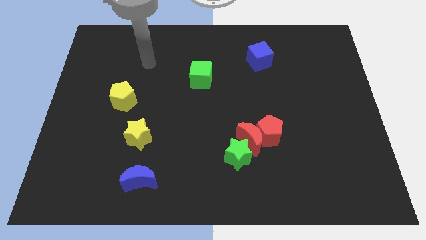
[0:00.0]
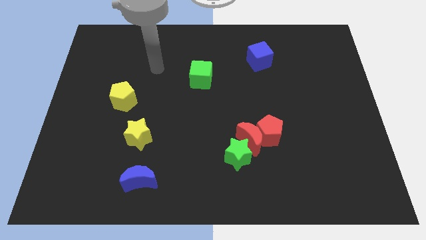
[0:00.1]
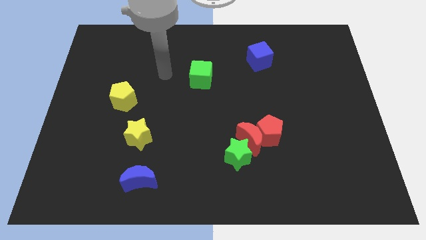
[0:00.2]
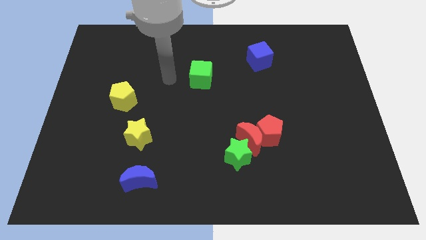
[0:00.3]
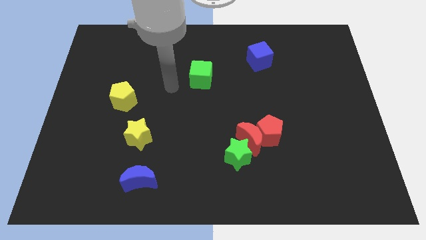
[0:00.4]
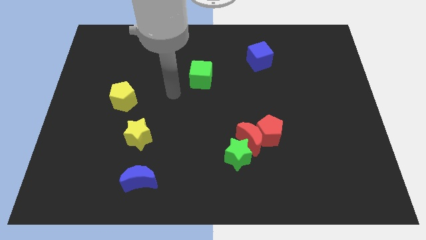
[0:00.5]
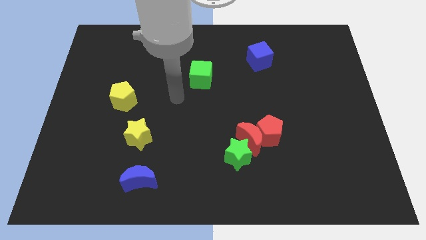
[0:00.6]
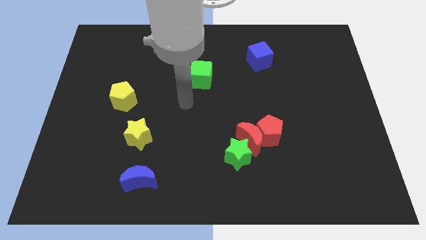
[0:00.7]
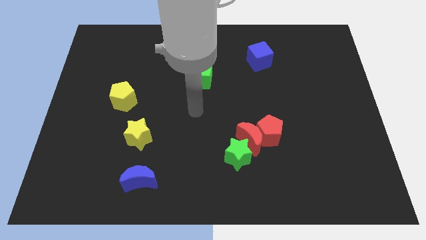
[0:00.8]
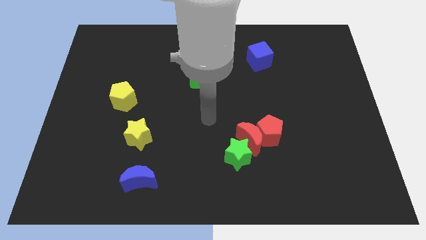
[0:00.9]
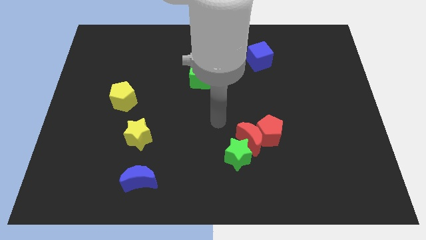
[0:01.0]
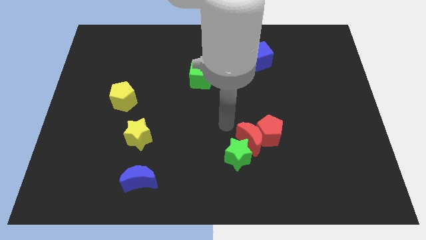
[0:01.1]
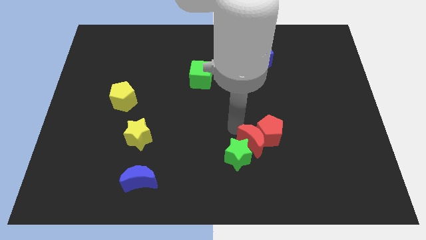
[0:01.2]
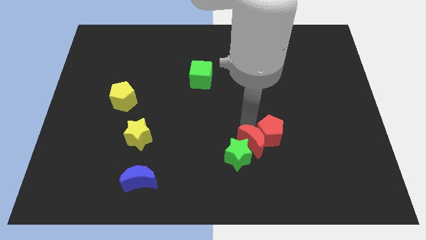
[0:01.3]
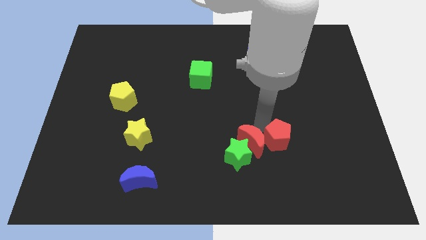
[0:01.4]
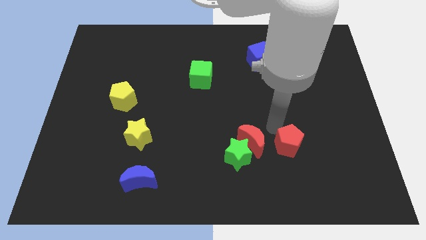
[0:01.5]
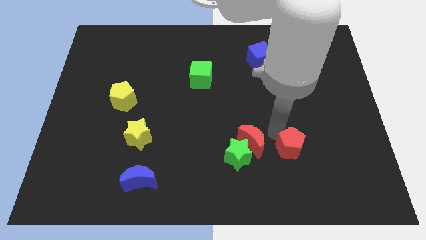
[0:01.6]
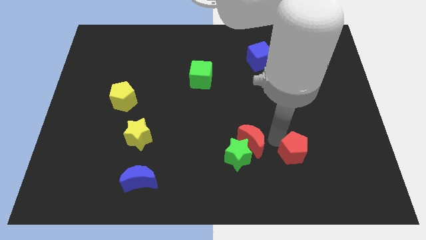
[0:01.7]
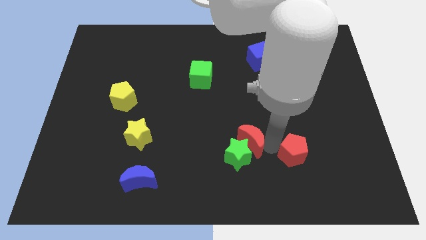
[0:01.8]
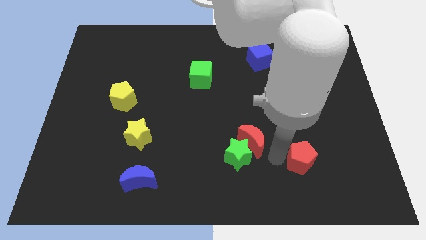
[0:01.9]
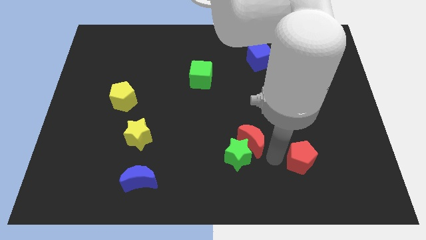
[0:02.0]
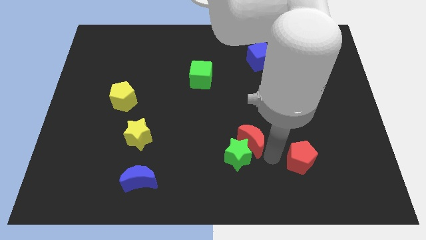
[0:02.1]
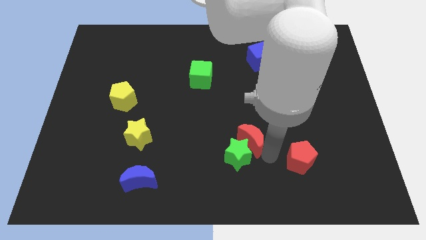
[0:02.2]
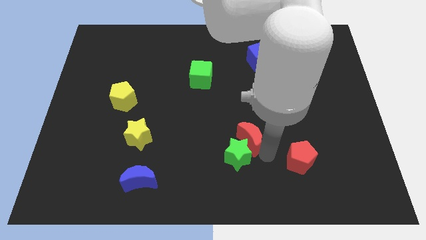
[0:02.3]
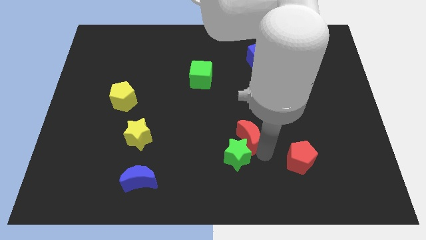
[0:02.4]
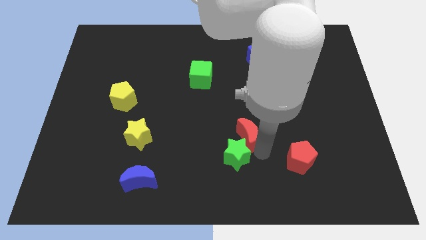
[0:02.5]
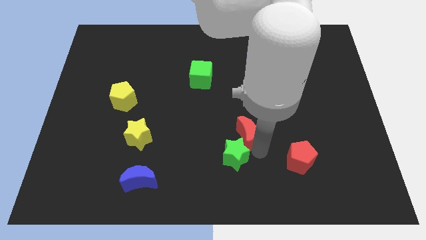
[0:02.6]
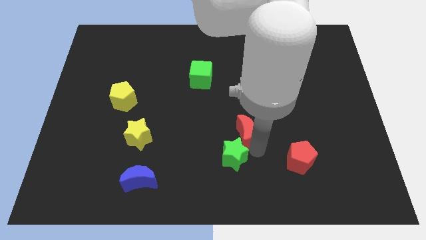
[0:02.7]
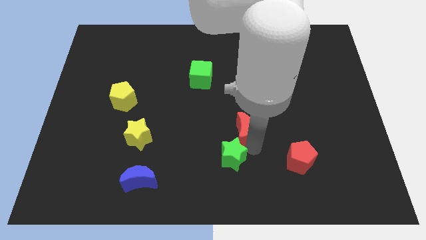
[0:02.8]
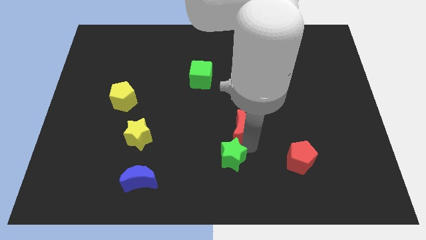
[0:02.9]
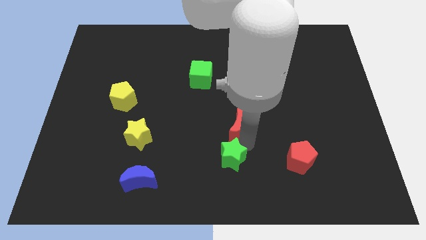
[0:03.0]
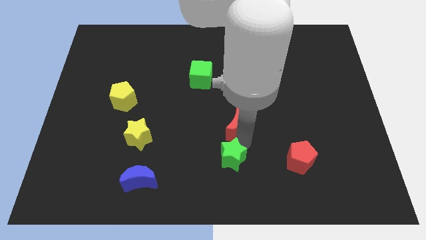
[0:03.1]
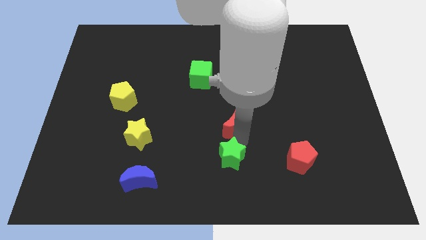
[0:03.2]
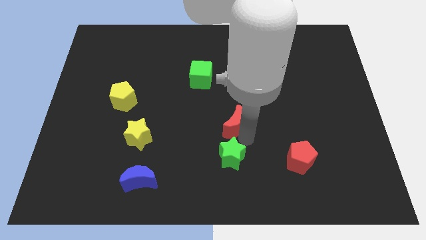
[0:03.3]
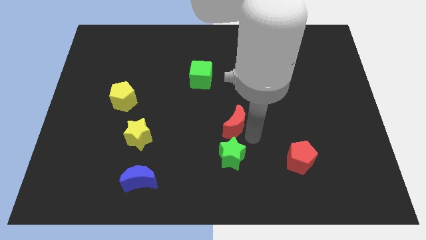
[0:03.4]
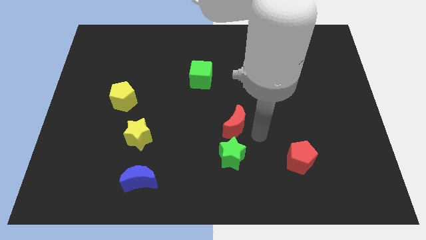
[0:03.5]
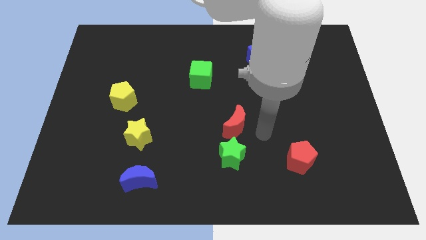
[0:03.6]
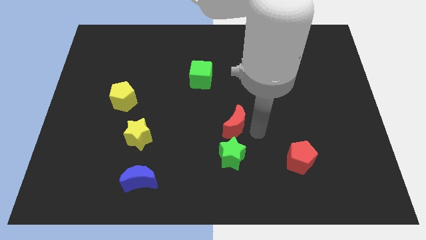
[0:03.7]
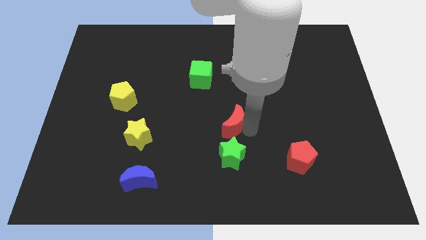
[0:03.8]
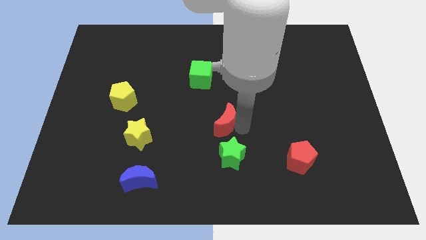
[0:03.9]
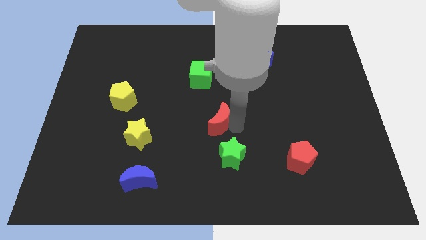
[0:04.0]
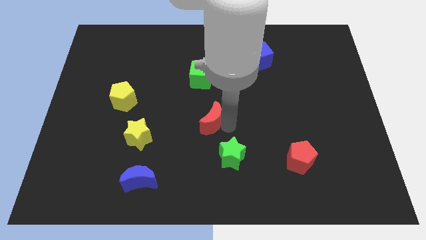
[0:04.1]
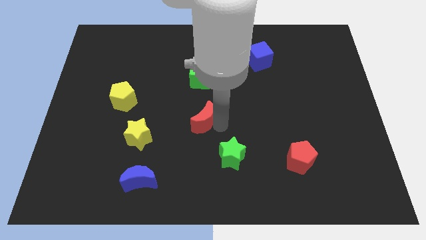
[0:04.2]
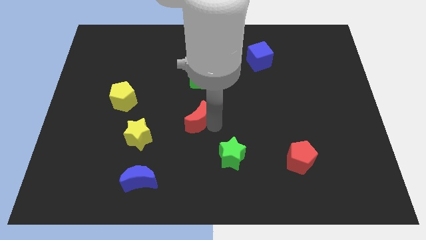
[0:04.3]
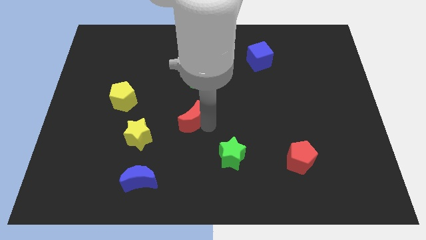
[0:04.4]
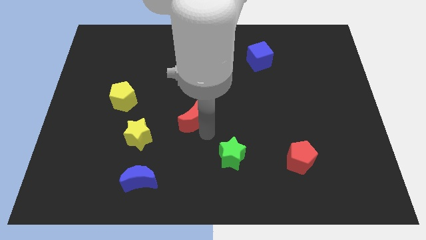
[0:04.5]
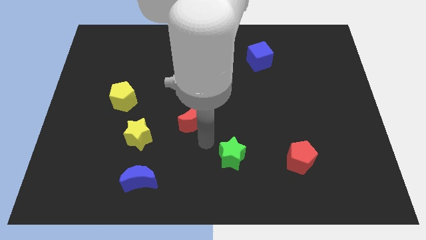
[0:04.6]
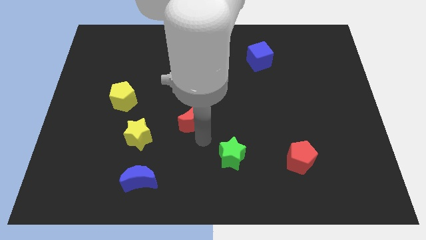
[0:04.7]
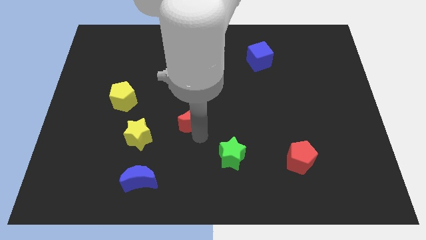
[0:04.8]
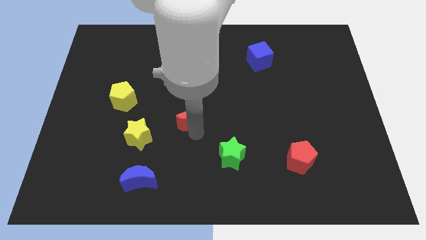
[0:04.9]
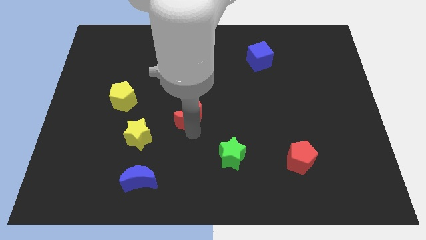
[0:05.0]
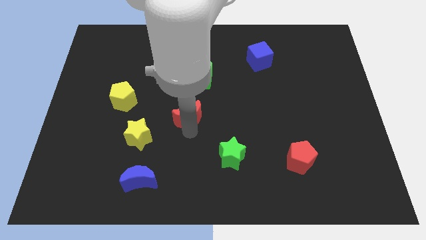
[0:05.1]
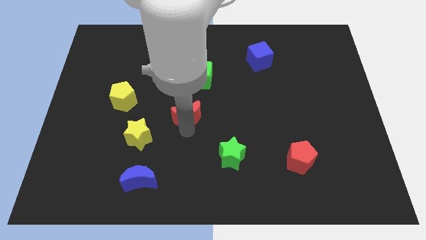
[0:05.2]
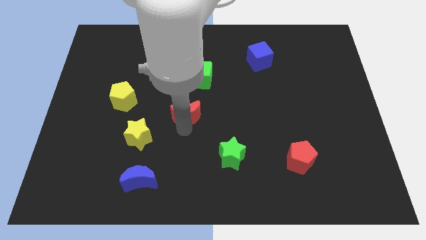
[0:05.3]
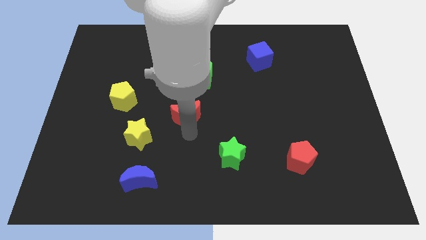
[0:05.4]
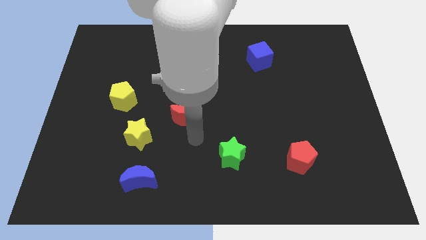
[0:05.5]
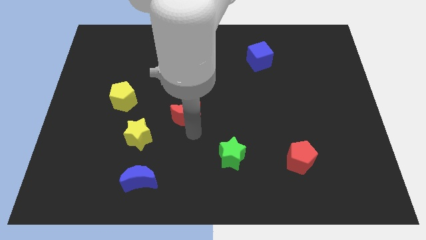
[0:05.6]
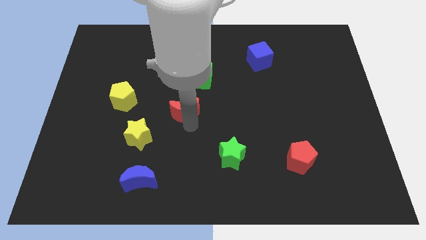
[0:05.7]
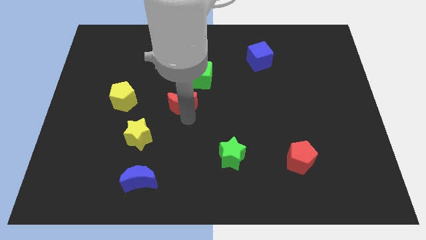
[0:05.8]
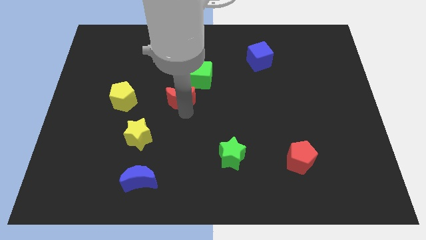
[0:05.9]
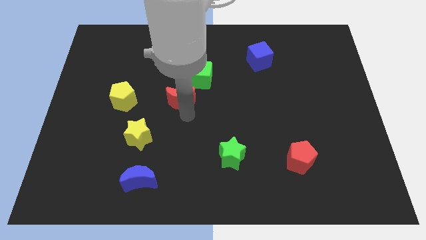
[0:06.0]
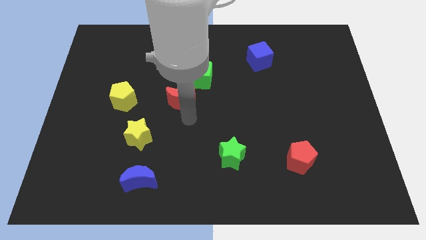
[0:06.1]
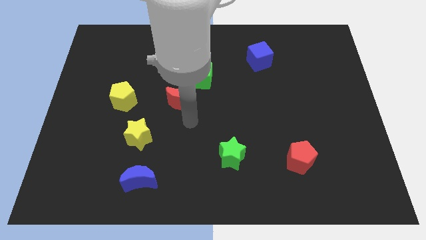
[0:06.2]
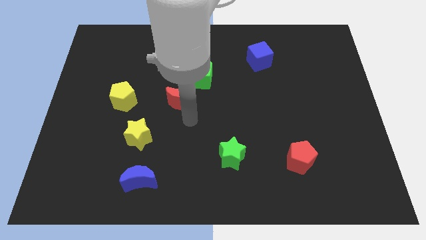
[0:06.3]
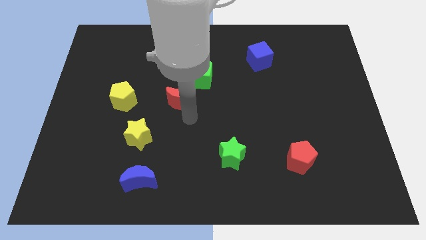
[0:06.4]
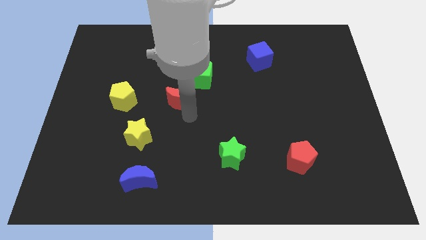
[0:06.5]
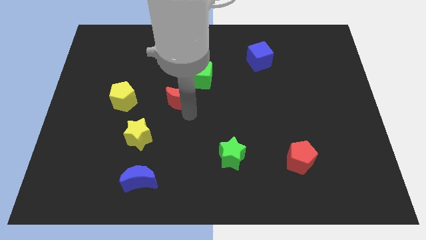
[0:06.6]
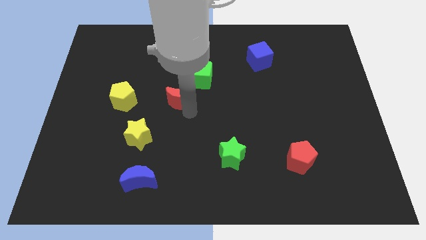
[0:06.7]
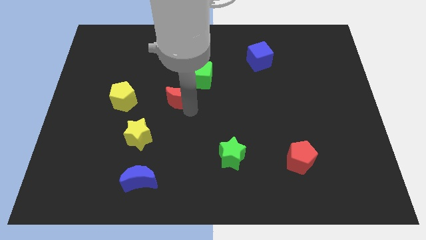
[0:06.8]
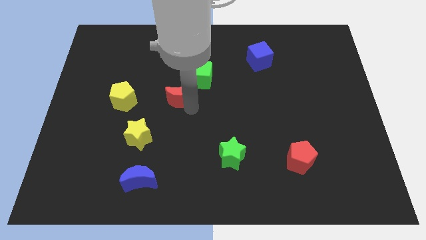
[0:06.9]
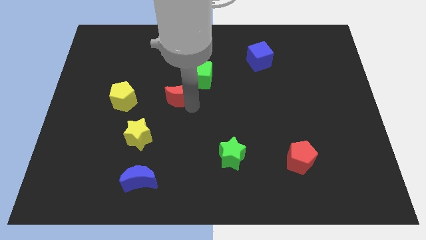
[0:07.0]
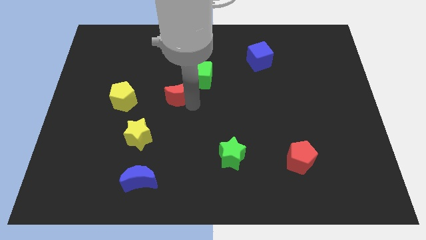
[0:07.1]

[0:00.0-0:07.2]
slide the red moon upwards and to the left

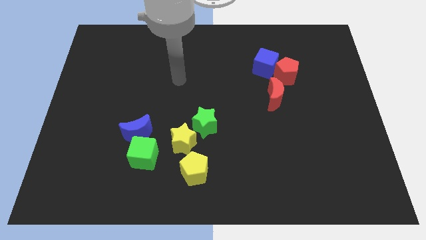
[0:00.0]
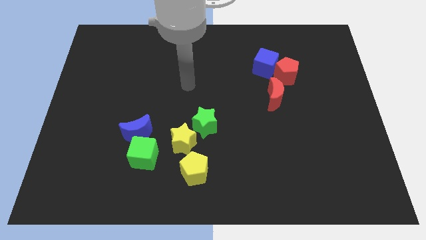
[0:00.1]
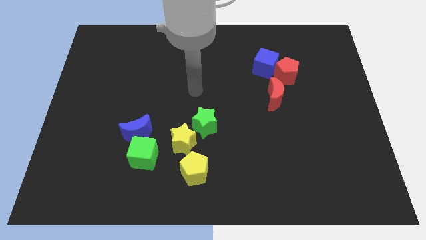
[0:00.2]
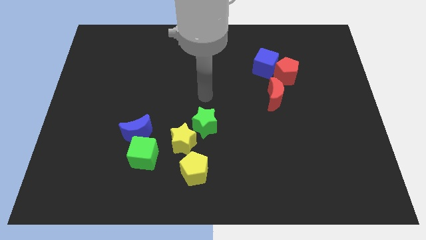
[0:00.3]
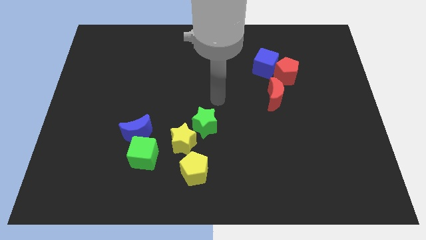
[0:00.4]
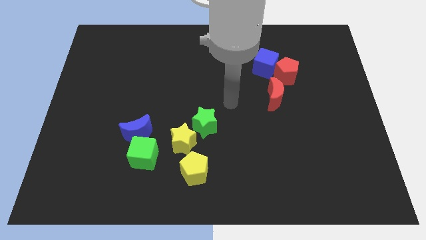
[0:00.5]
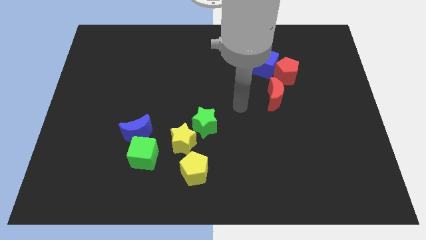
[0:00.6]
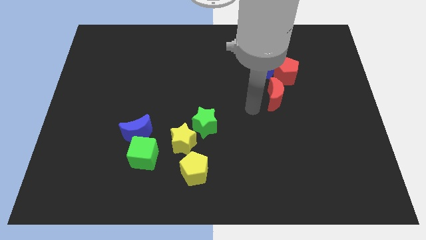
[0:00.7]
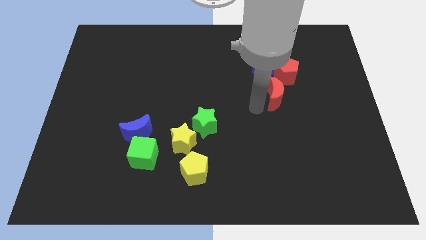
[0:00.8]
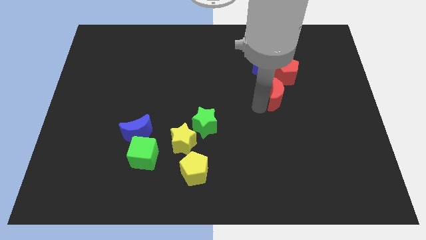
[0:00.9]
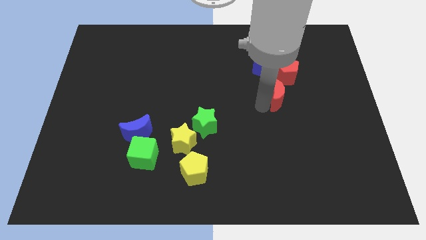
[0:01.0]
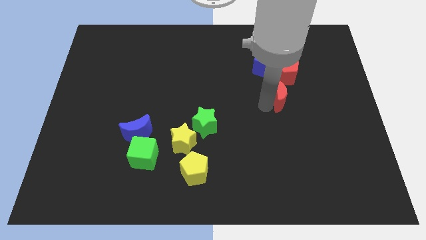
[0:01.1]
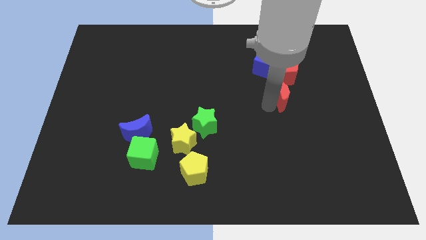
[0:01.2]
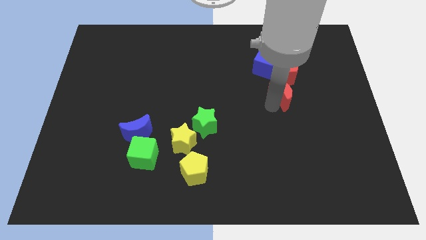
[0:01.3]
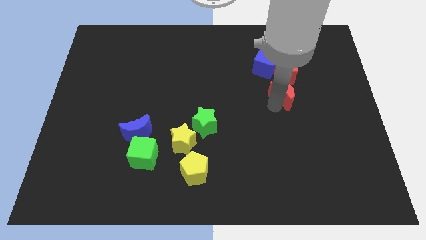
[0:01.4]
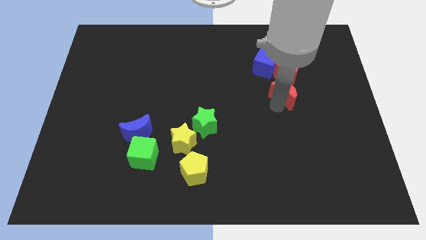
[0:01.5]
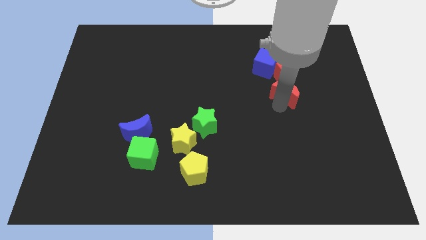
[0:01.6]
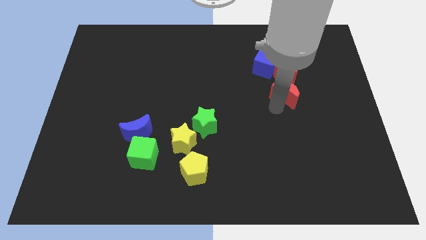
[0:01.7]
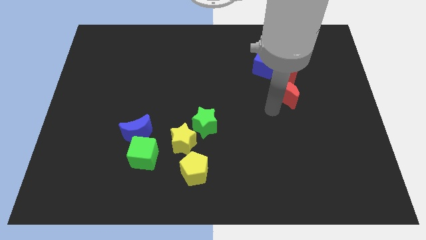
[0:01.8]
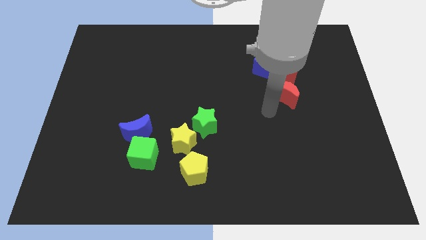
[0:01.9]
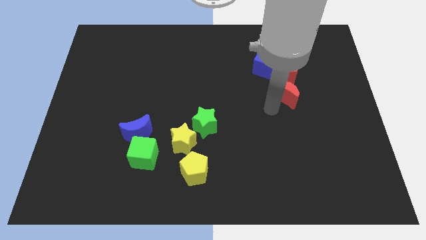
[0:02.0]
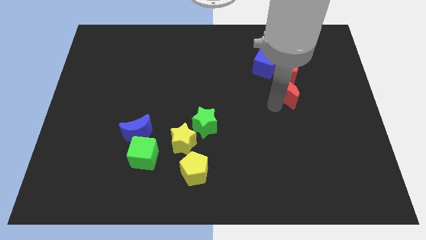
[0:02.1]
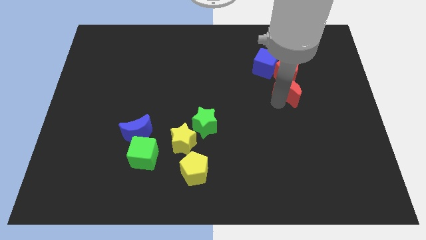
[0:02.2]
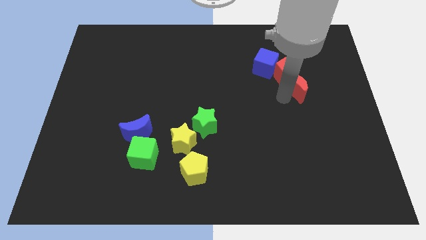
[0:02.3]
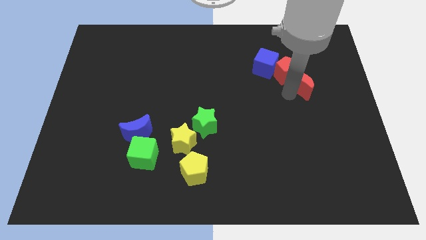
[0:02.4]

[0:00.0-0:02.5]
slightly slide the red moon diagonally upwards and to the right
